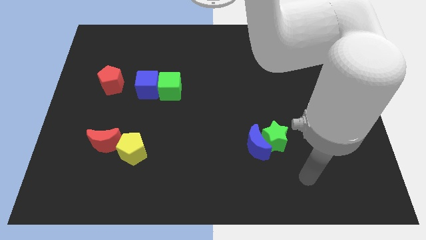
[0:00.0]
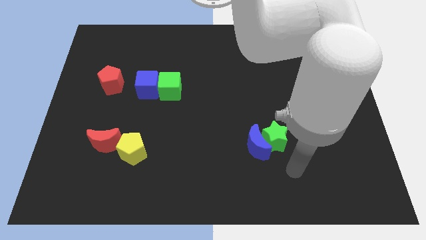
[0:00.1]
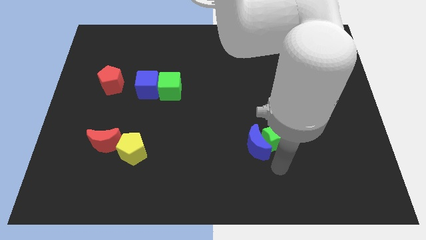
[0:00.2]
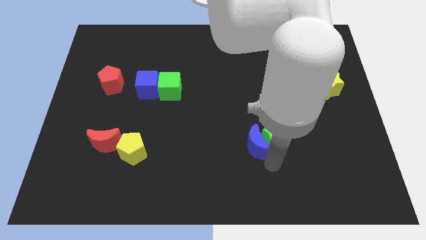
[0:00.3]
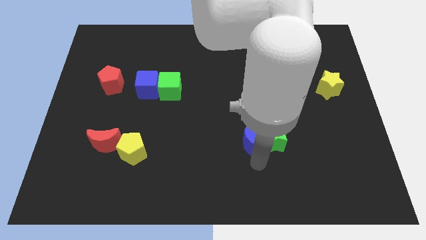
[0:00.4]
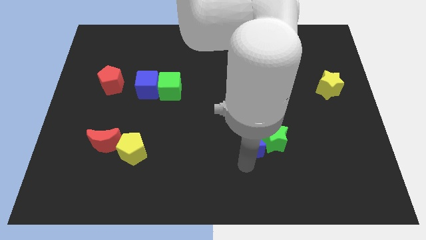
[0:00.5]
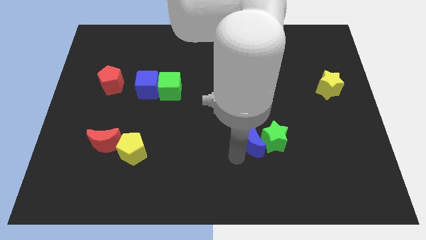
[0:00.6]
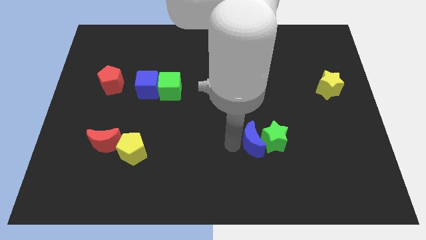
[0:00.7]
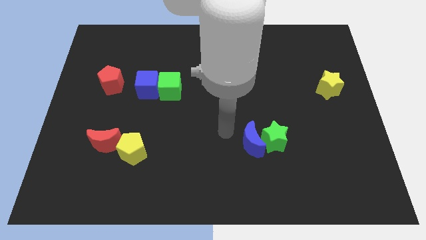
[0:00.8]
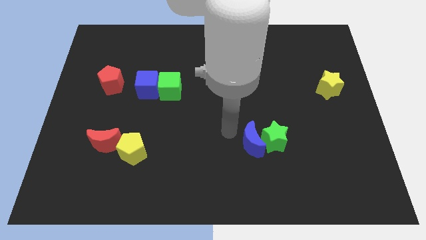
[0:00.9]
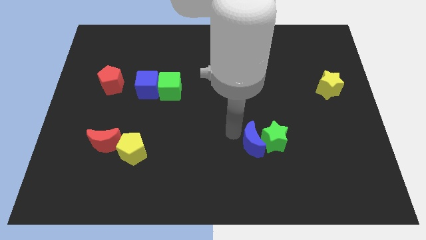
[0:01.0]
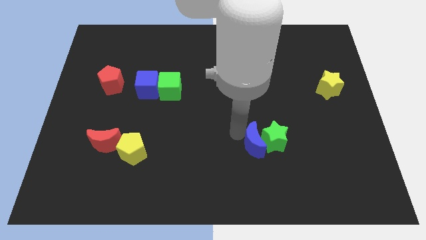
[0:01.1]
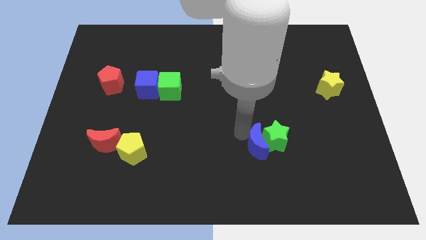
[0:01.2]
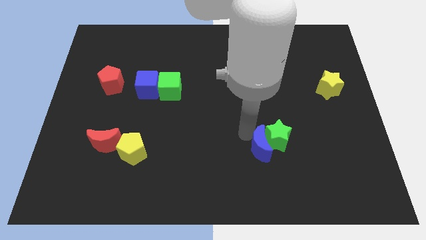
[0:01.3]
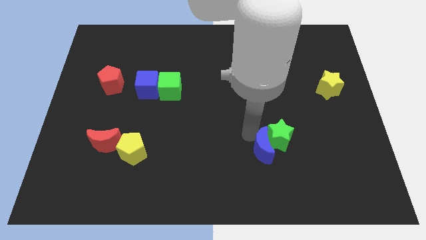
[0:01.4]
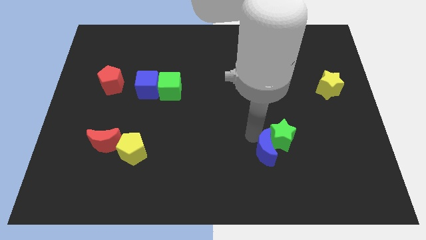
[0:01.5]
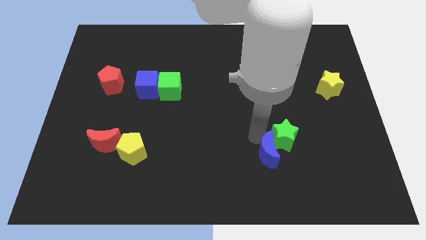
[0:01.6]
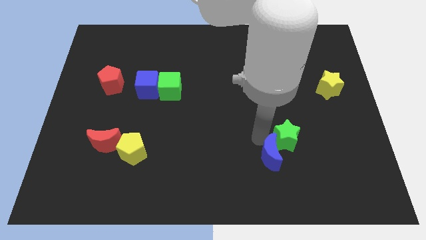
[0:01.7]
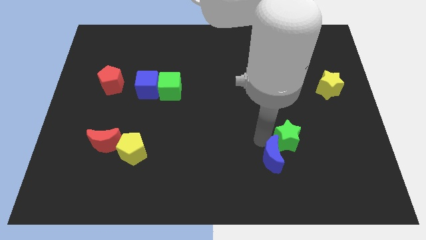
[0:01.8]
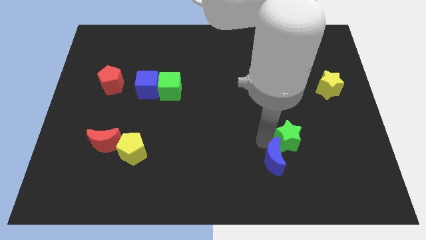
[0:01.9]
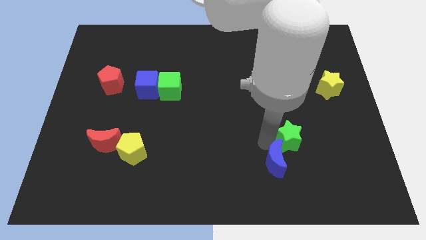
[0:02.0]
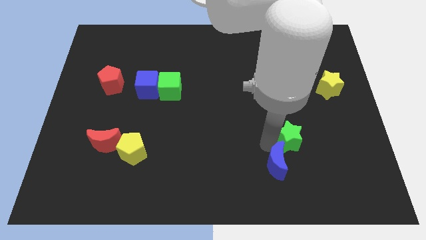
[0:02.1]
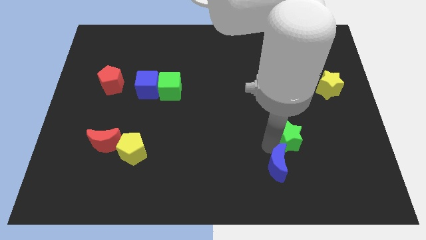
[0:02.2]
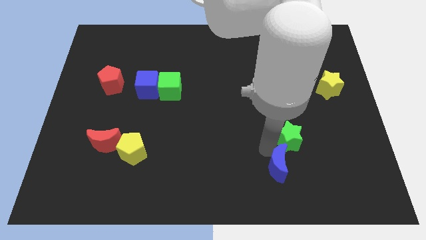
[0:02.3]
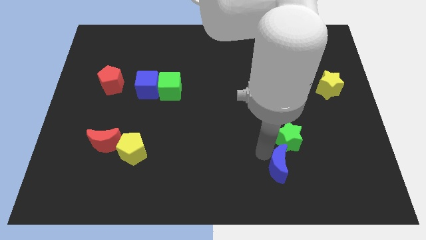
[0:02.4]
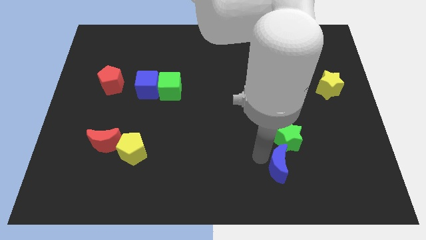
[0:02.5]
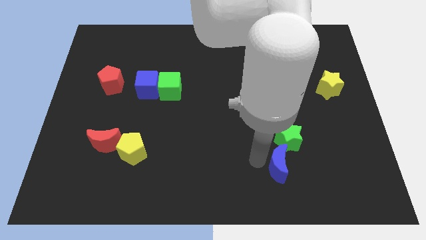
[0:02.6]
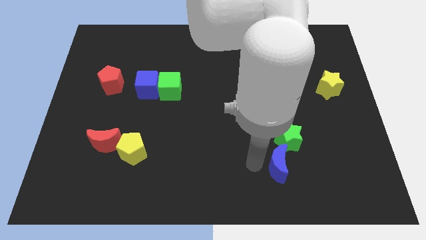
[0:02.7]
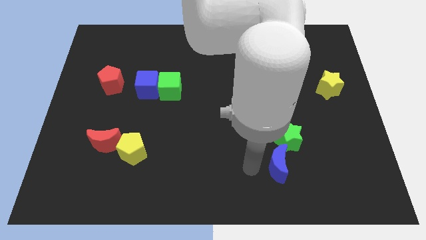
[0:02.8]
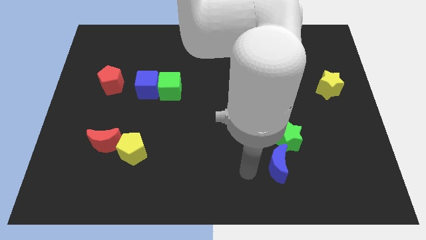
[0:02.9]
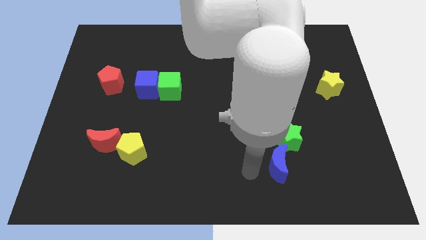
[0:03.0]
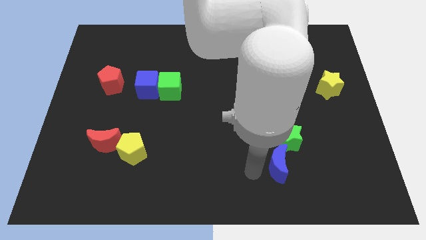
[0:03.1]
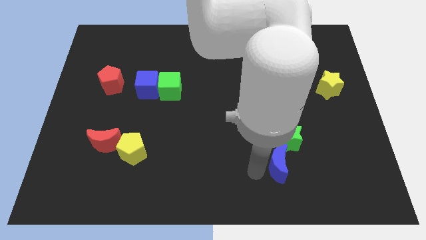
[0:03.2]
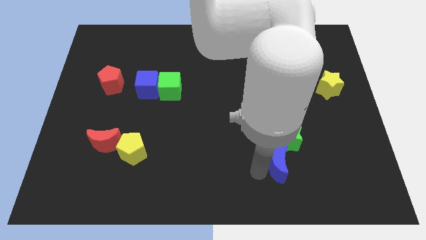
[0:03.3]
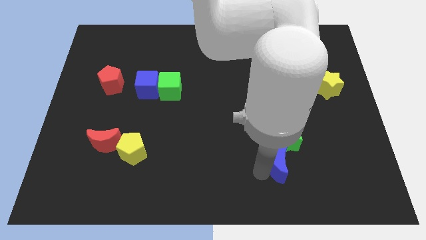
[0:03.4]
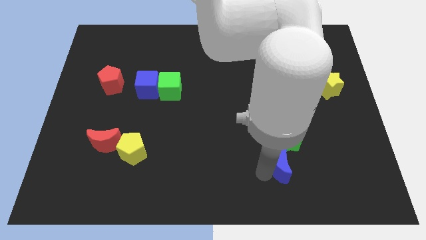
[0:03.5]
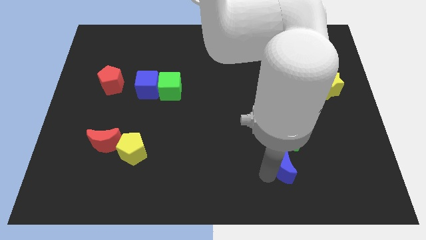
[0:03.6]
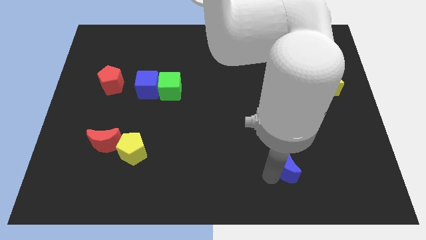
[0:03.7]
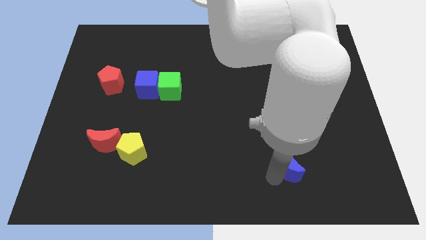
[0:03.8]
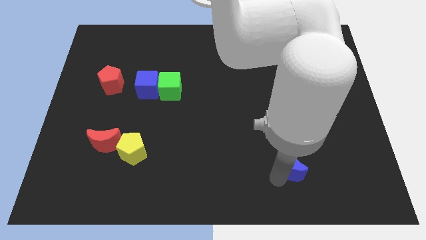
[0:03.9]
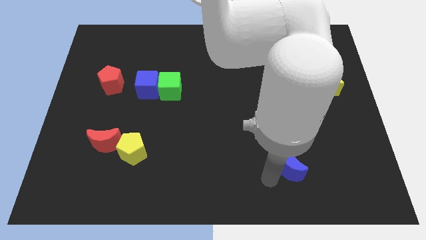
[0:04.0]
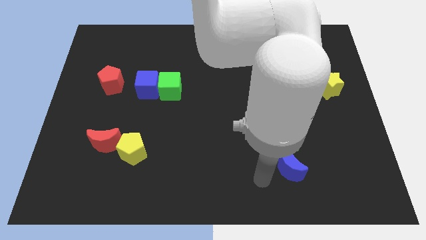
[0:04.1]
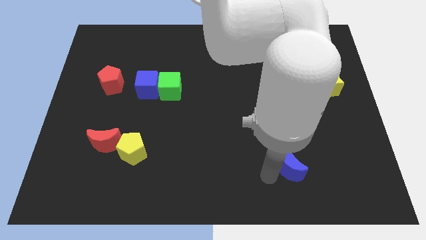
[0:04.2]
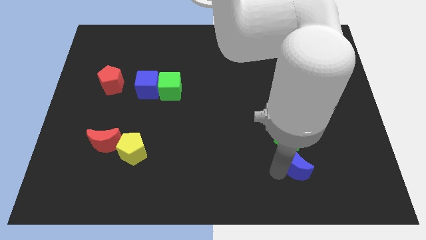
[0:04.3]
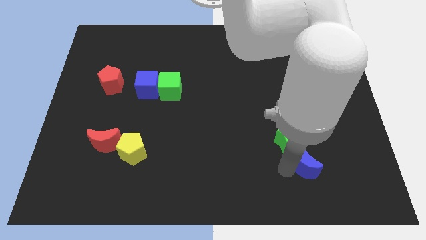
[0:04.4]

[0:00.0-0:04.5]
slightly move the blue moon right

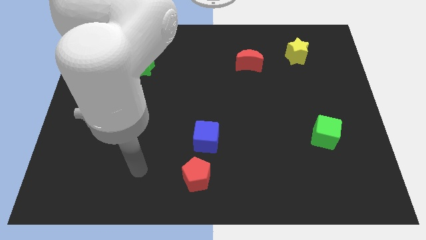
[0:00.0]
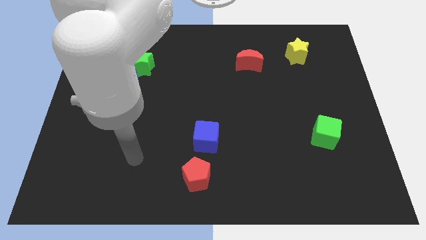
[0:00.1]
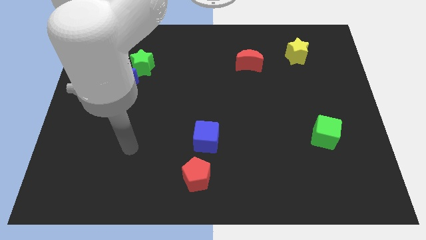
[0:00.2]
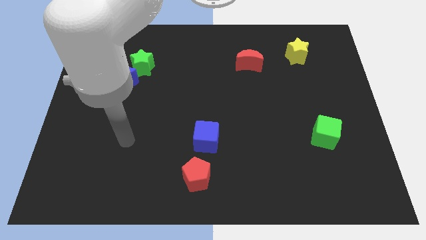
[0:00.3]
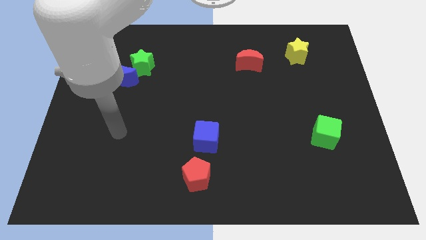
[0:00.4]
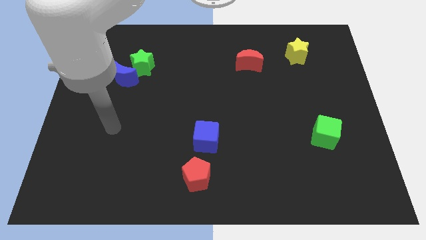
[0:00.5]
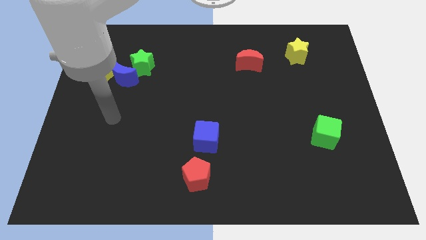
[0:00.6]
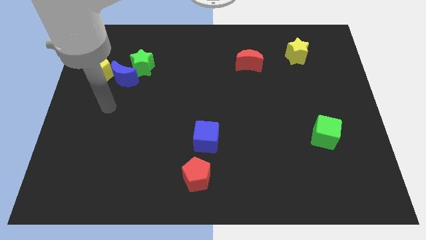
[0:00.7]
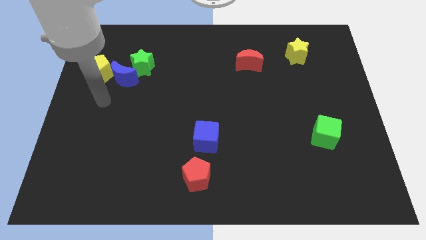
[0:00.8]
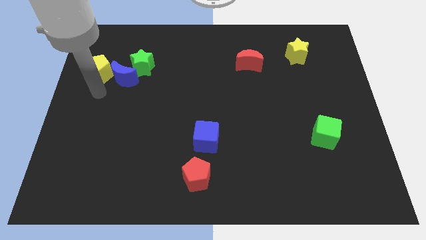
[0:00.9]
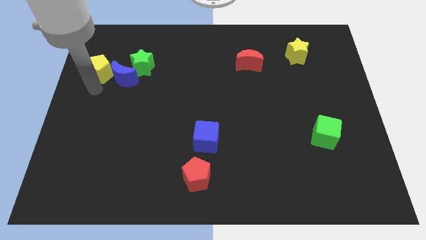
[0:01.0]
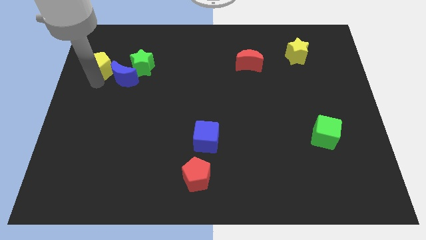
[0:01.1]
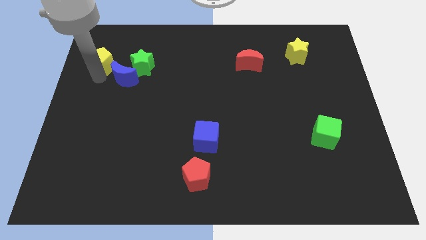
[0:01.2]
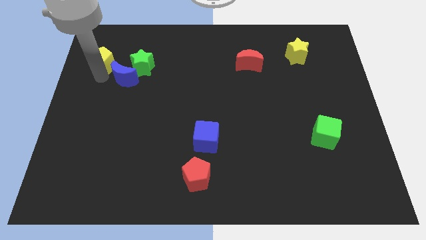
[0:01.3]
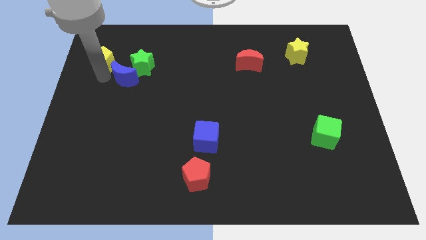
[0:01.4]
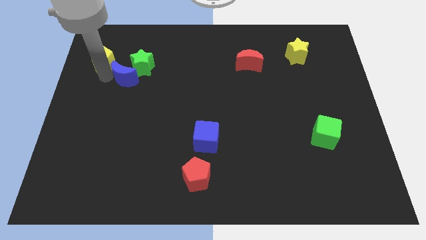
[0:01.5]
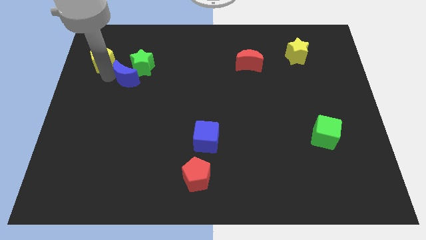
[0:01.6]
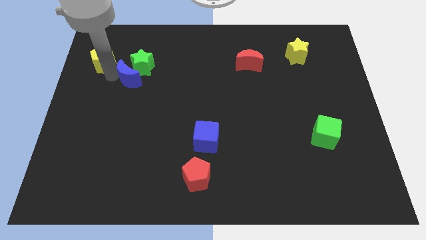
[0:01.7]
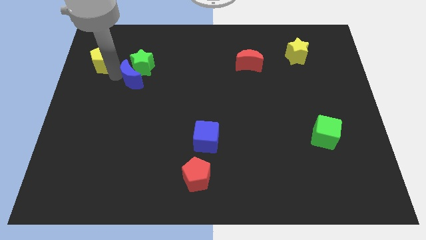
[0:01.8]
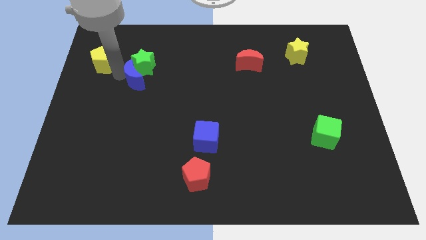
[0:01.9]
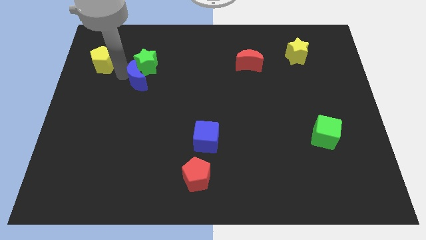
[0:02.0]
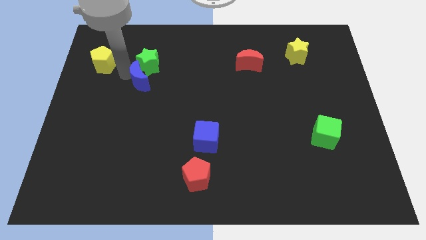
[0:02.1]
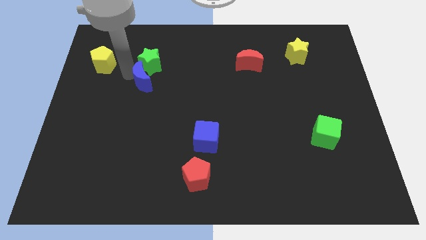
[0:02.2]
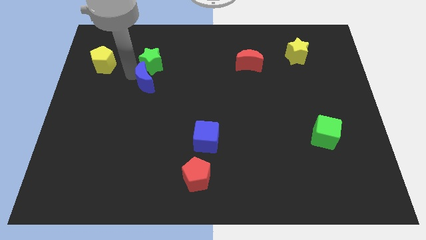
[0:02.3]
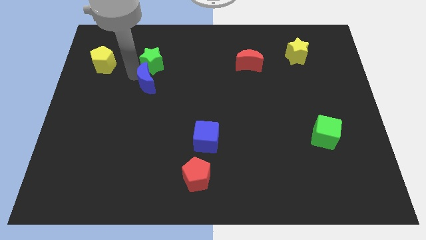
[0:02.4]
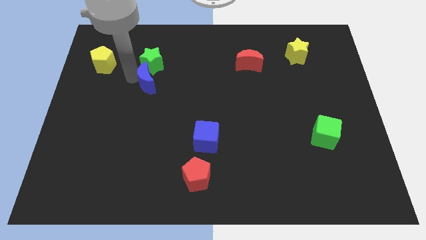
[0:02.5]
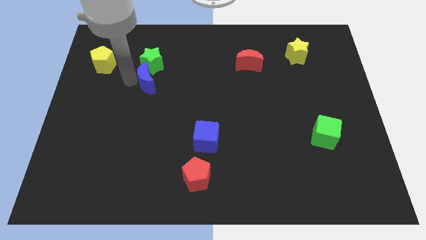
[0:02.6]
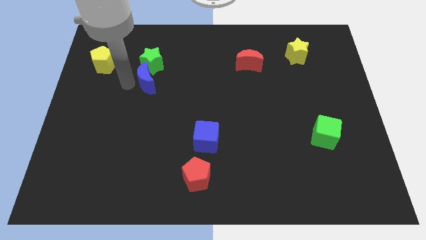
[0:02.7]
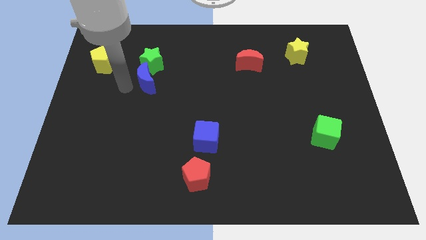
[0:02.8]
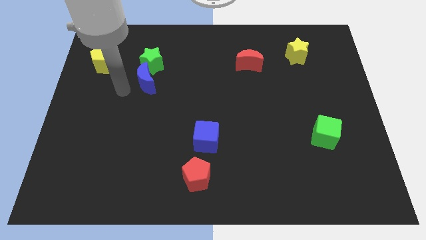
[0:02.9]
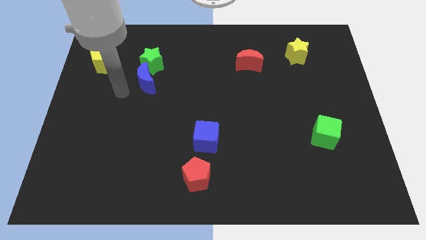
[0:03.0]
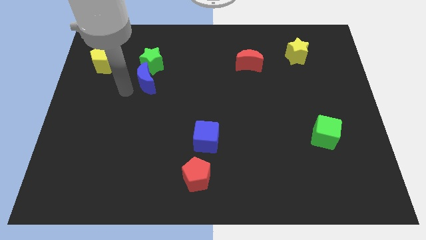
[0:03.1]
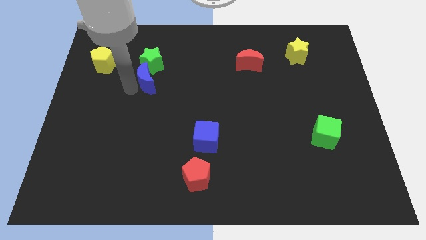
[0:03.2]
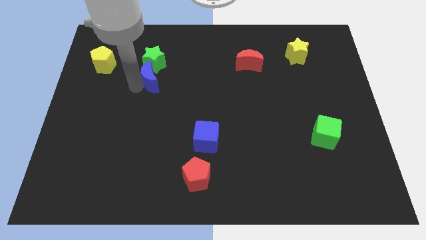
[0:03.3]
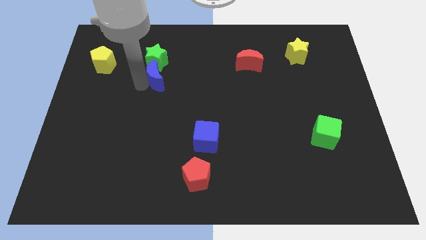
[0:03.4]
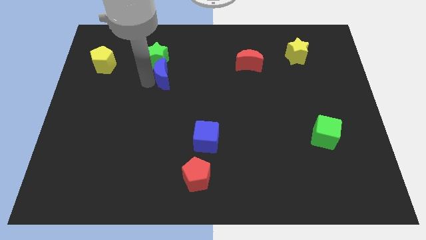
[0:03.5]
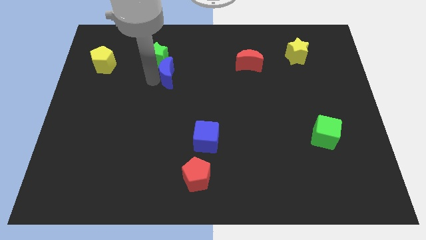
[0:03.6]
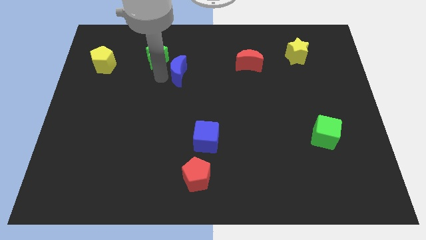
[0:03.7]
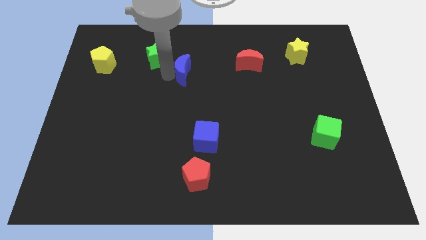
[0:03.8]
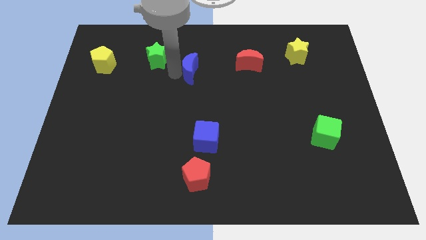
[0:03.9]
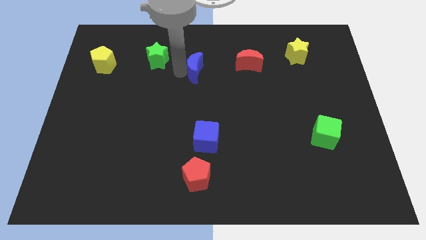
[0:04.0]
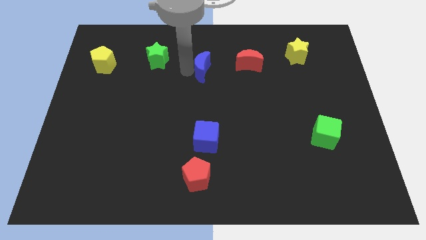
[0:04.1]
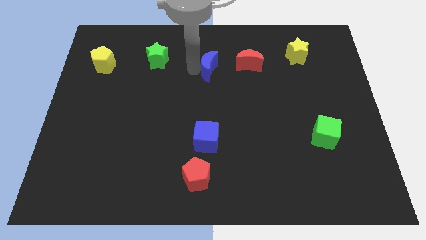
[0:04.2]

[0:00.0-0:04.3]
move the blue moon to the right
